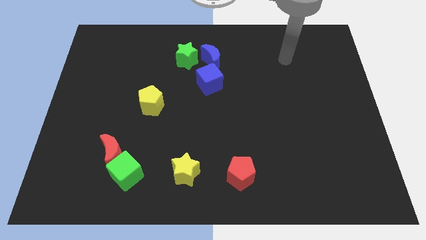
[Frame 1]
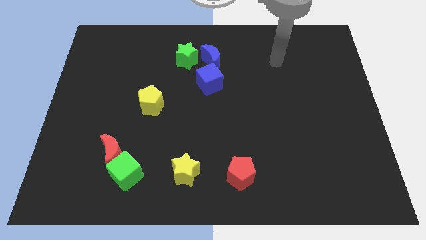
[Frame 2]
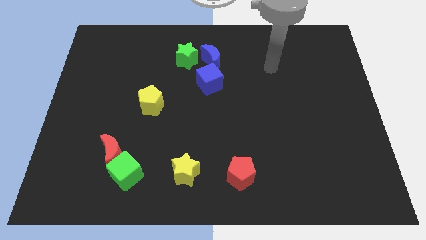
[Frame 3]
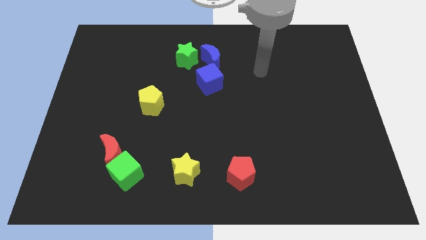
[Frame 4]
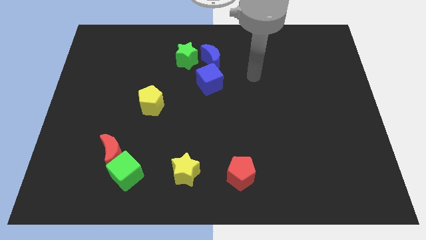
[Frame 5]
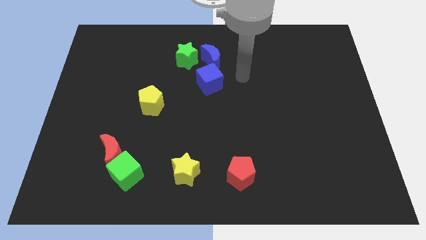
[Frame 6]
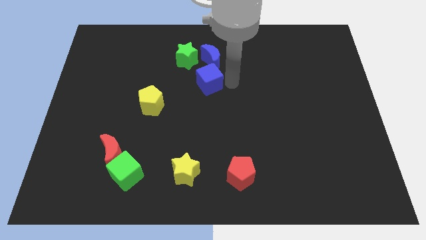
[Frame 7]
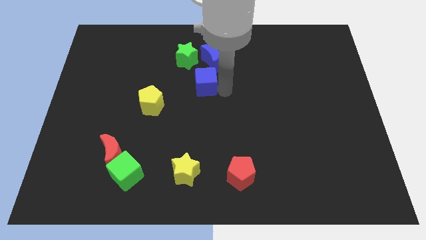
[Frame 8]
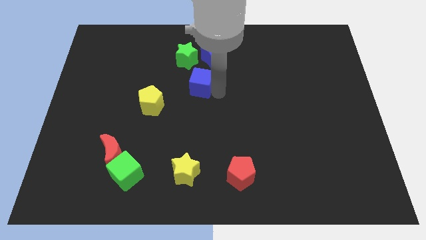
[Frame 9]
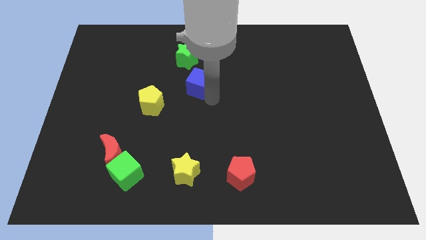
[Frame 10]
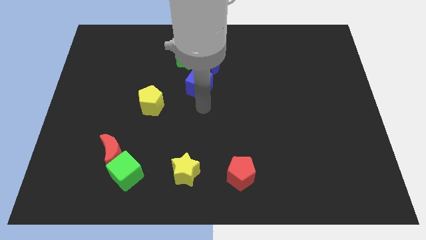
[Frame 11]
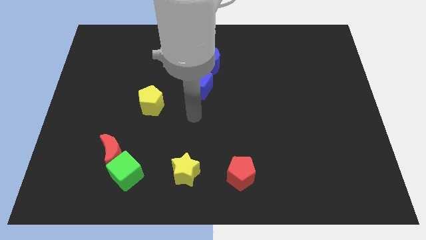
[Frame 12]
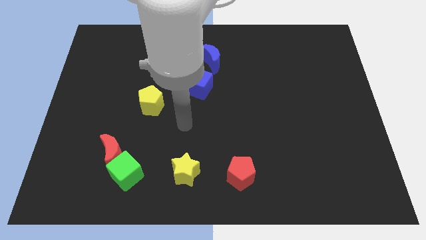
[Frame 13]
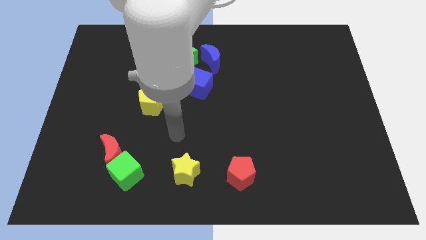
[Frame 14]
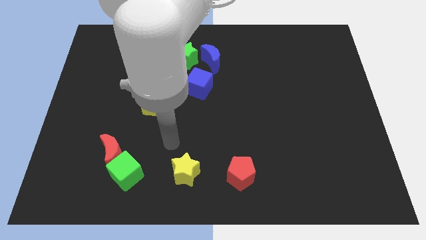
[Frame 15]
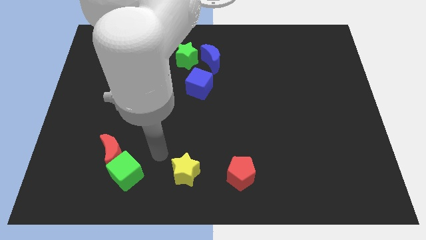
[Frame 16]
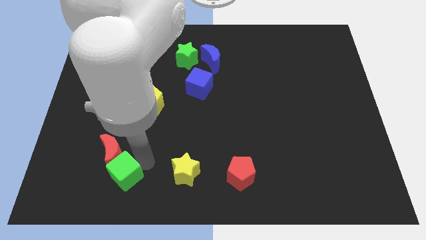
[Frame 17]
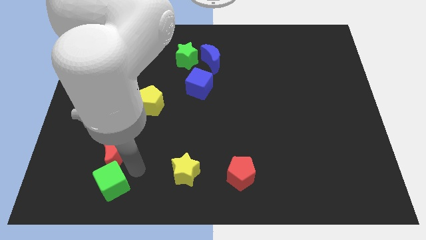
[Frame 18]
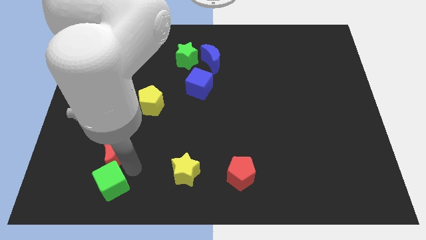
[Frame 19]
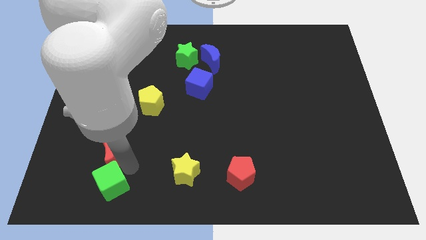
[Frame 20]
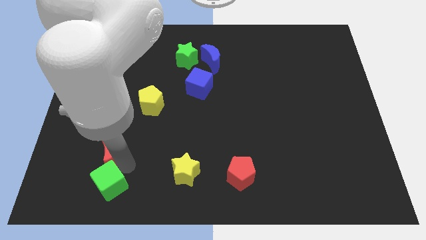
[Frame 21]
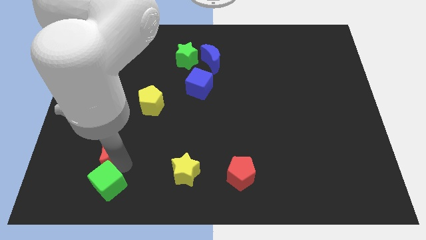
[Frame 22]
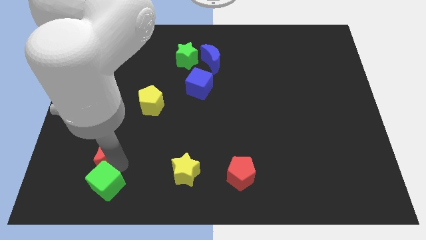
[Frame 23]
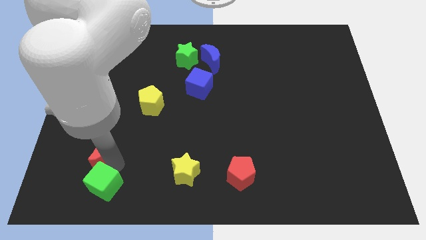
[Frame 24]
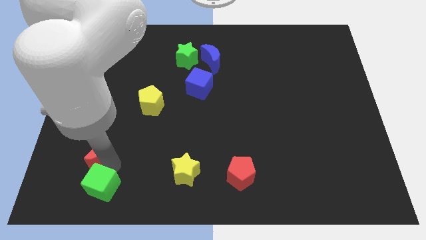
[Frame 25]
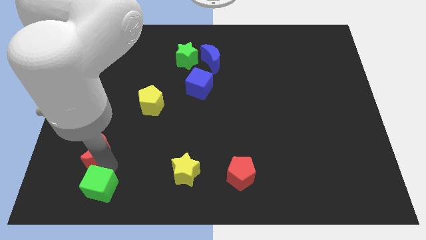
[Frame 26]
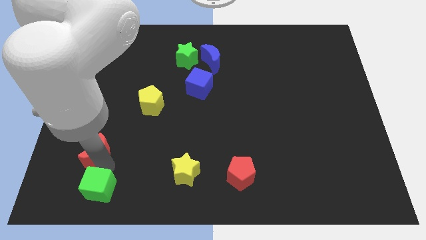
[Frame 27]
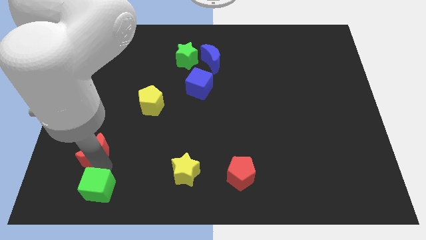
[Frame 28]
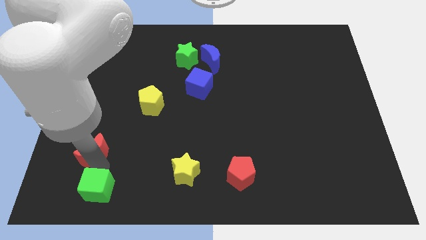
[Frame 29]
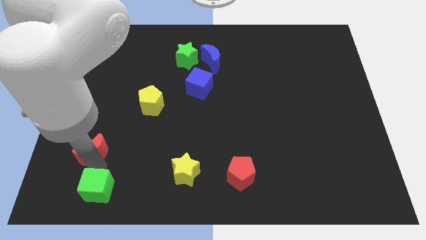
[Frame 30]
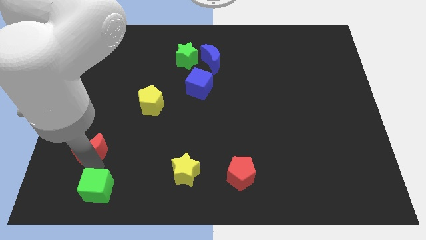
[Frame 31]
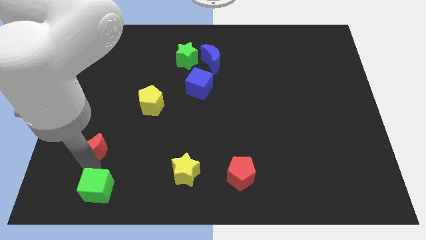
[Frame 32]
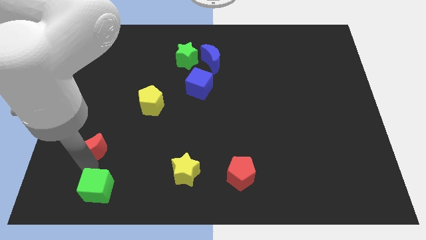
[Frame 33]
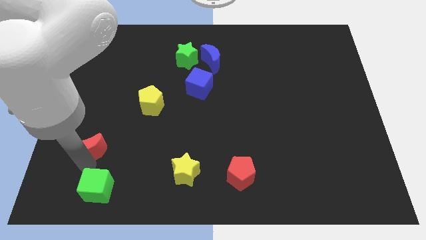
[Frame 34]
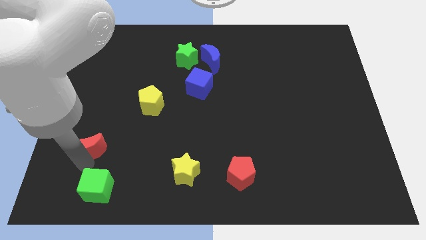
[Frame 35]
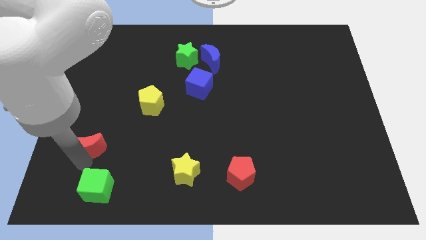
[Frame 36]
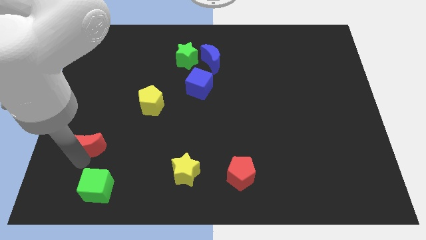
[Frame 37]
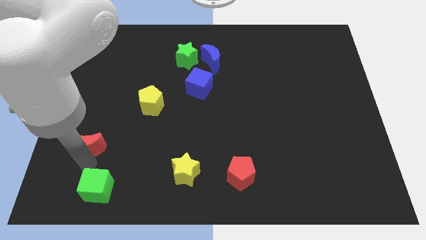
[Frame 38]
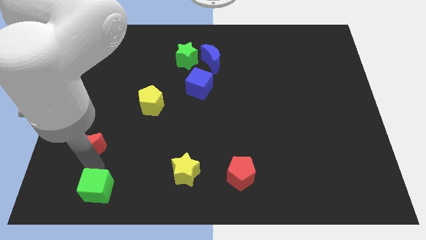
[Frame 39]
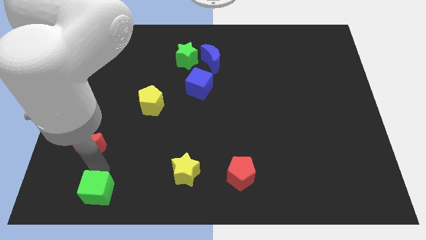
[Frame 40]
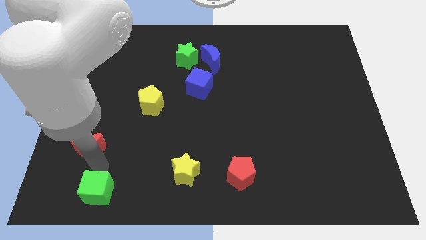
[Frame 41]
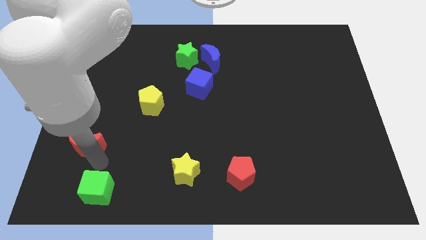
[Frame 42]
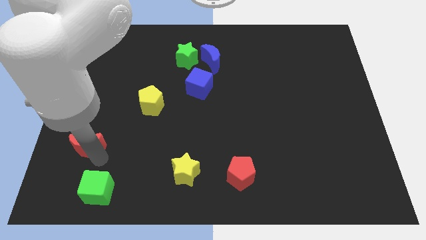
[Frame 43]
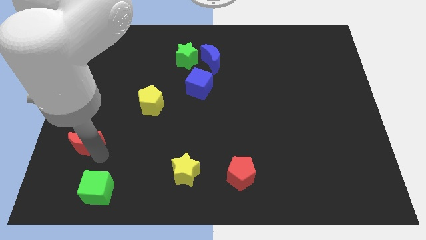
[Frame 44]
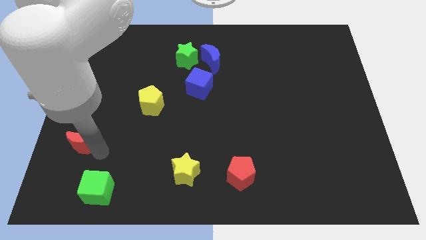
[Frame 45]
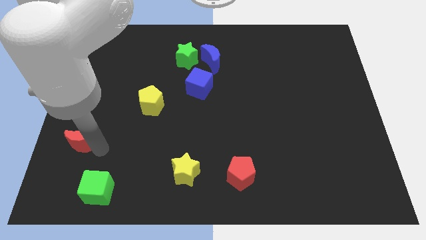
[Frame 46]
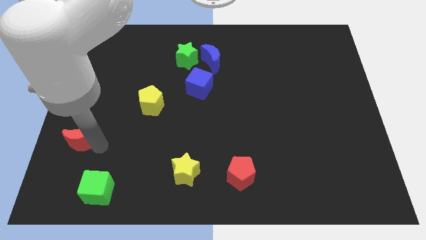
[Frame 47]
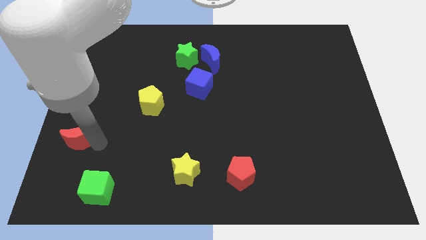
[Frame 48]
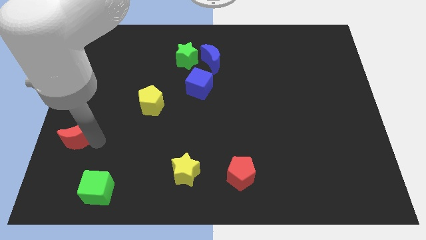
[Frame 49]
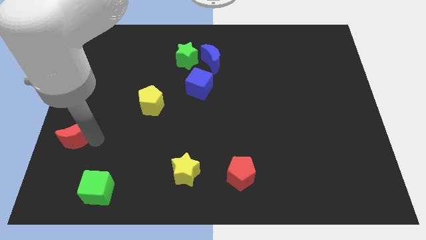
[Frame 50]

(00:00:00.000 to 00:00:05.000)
put the red moon to the center left

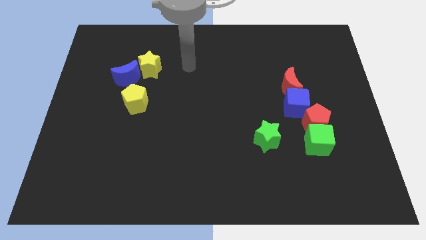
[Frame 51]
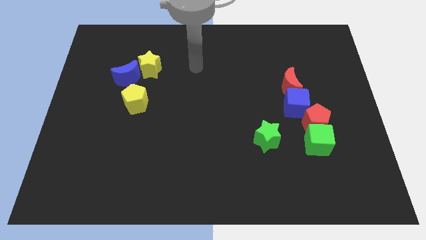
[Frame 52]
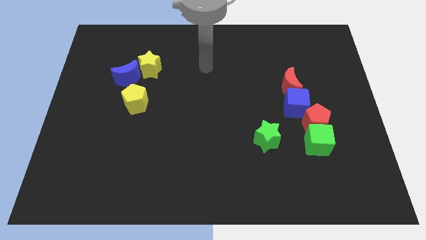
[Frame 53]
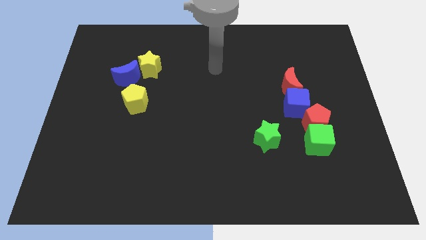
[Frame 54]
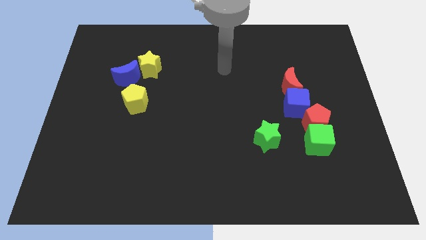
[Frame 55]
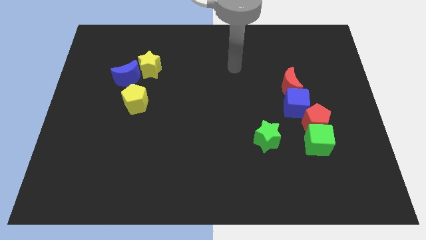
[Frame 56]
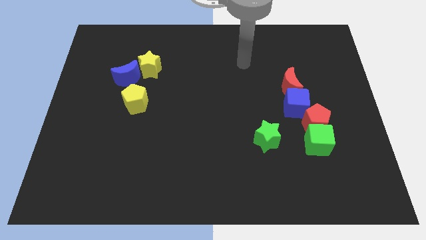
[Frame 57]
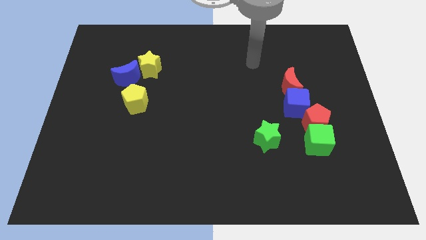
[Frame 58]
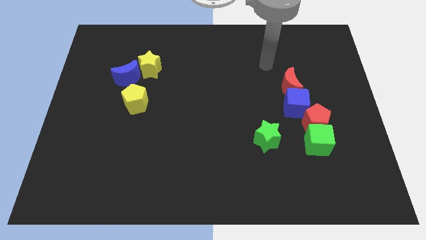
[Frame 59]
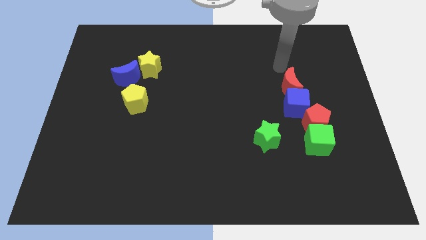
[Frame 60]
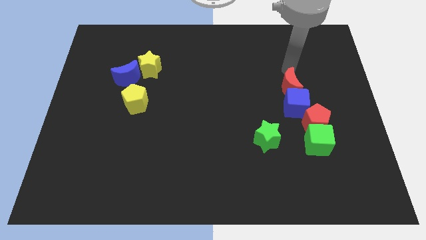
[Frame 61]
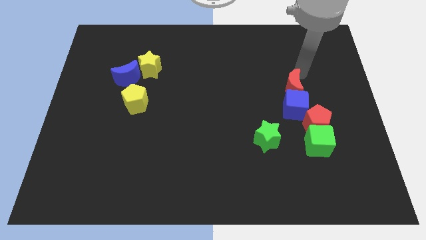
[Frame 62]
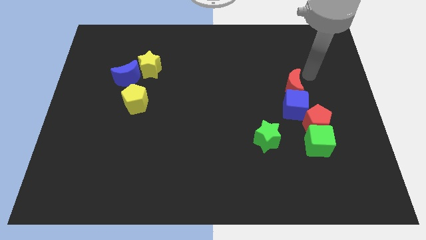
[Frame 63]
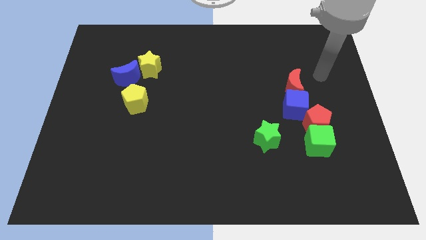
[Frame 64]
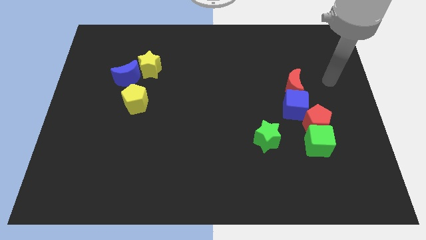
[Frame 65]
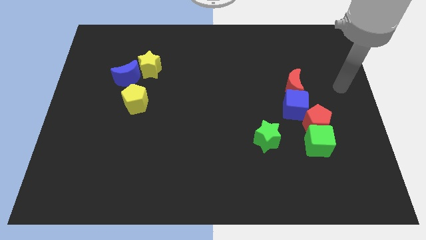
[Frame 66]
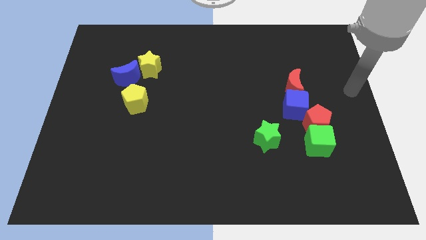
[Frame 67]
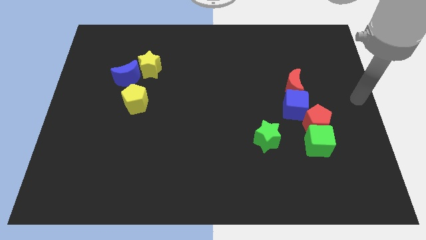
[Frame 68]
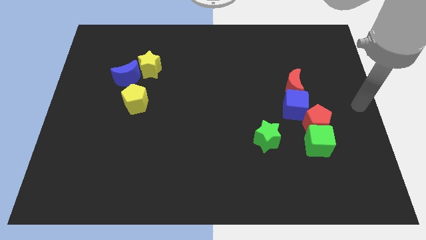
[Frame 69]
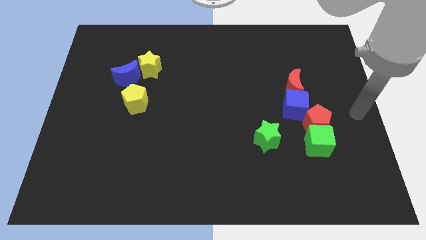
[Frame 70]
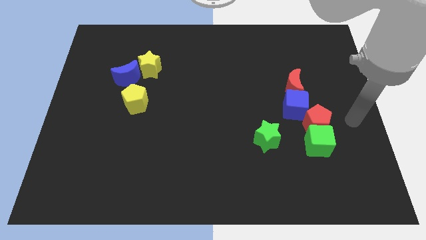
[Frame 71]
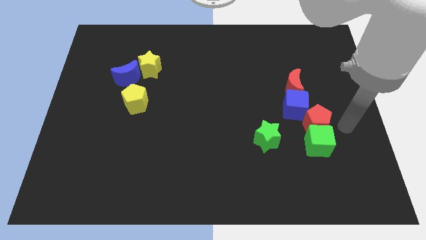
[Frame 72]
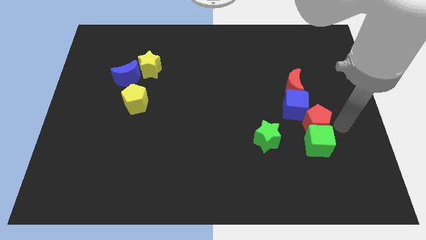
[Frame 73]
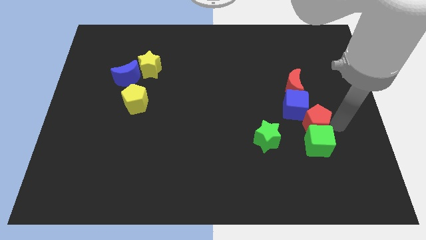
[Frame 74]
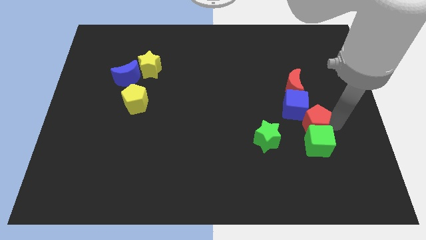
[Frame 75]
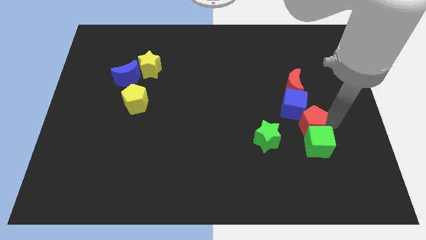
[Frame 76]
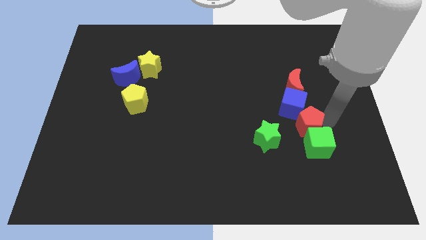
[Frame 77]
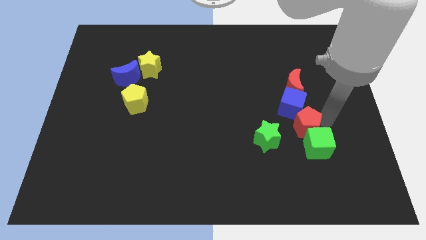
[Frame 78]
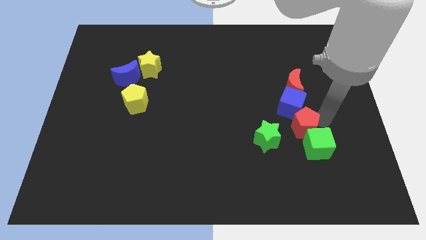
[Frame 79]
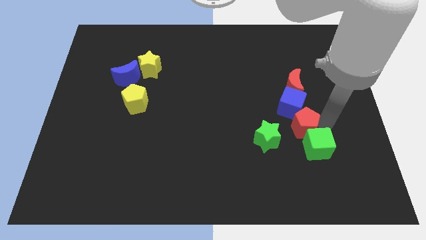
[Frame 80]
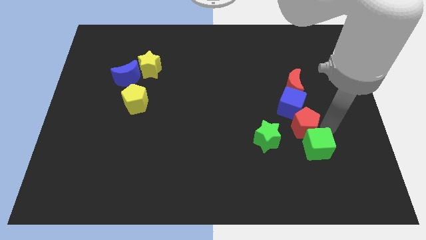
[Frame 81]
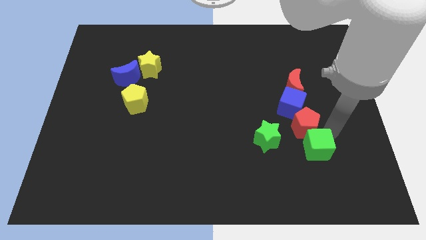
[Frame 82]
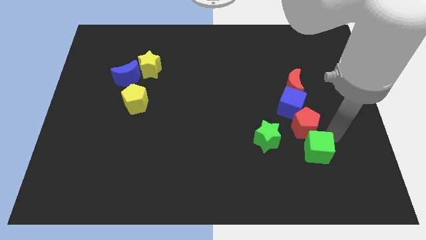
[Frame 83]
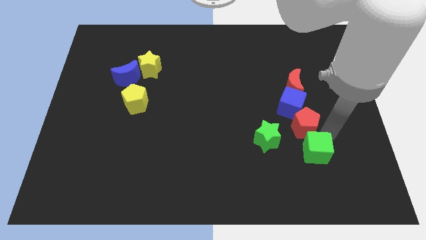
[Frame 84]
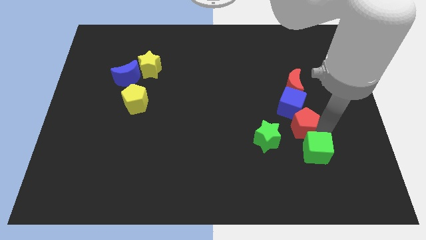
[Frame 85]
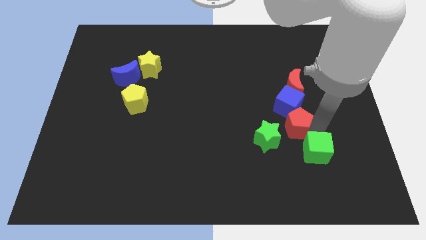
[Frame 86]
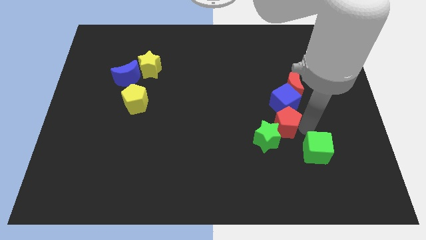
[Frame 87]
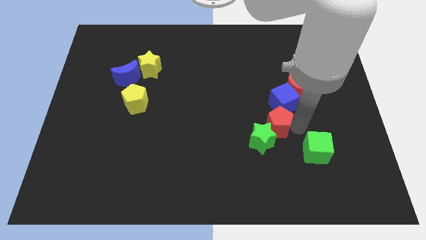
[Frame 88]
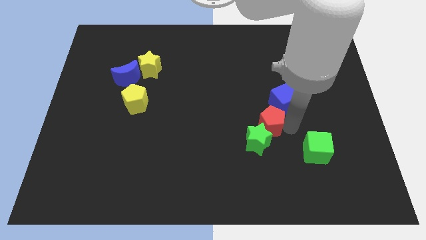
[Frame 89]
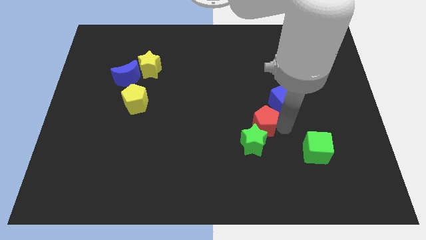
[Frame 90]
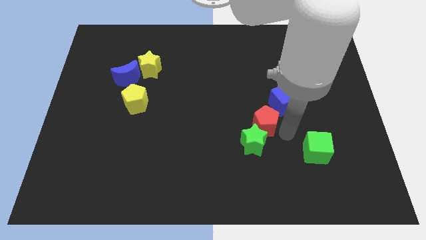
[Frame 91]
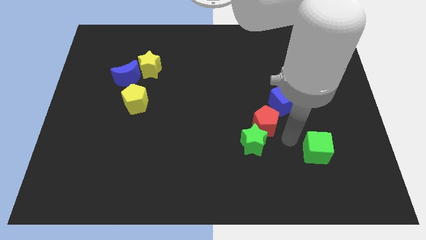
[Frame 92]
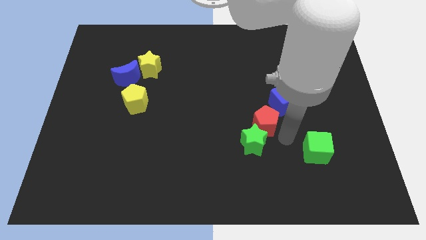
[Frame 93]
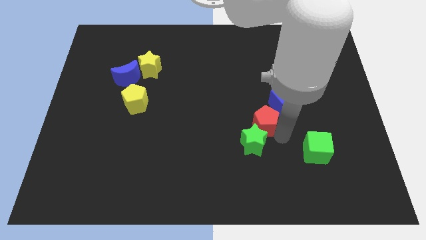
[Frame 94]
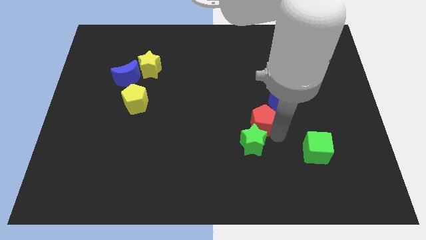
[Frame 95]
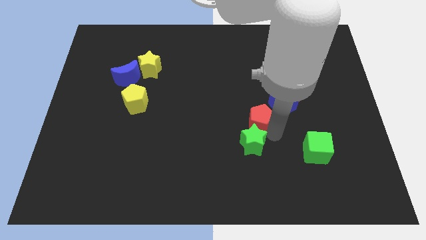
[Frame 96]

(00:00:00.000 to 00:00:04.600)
move the red pentagon to the middle
